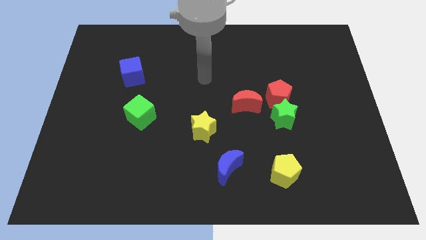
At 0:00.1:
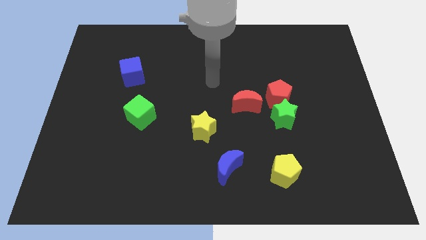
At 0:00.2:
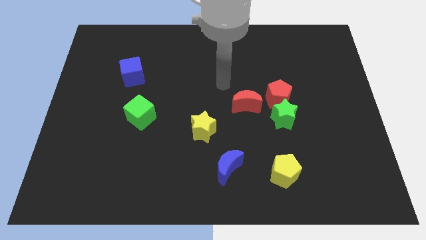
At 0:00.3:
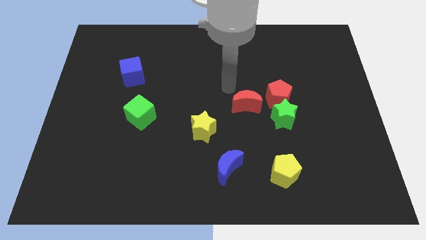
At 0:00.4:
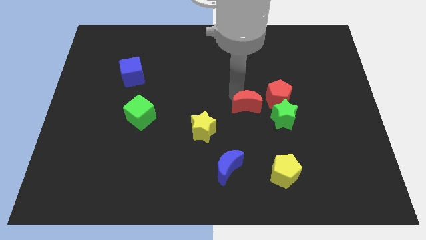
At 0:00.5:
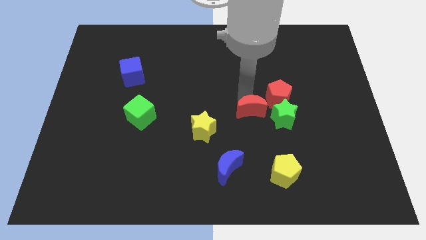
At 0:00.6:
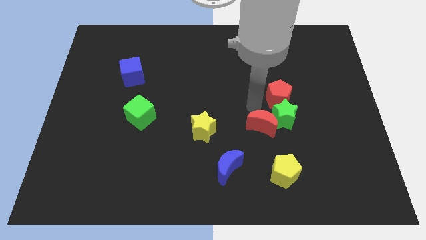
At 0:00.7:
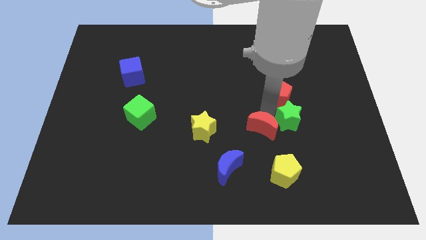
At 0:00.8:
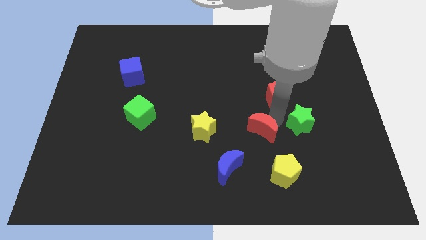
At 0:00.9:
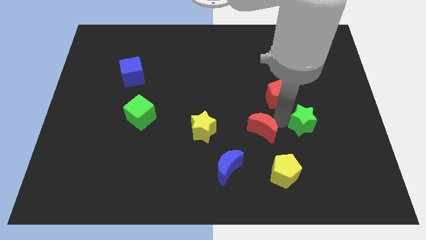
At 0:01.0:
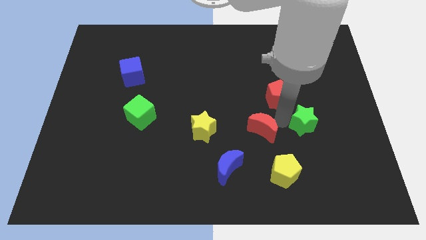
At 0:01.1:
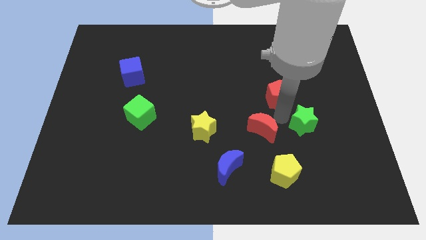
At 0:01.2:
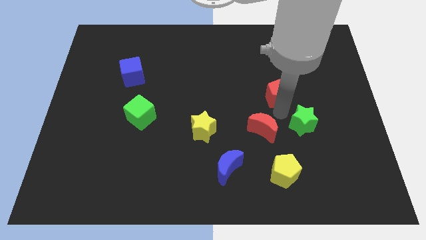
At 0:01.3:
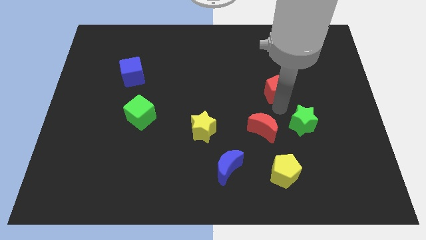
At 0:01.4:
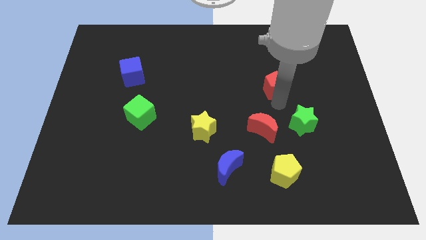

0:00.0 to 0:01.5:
move the red pentagon away from the green star and red moon

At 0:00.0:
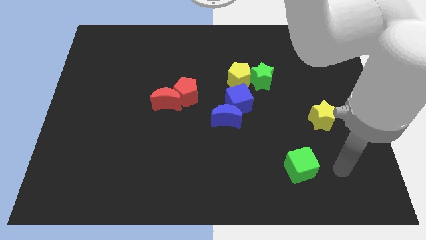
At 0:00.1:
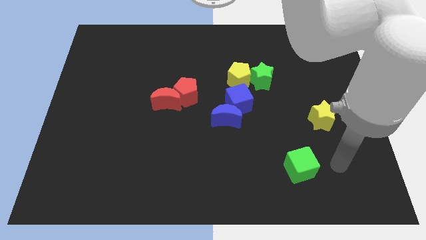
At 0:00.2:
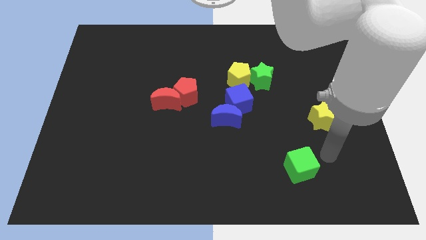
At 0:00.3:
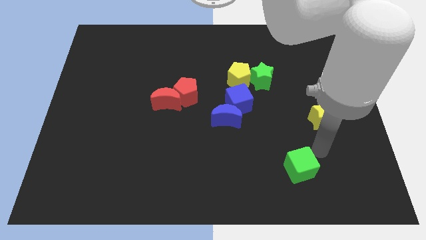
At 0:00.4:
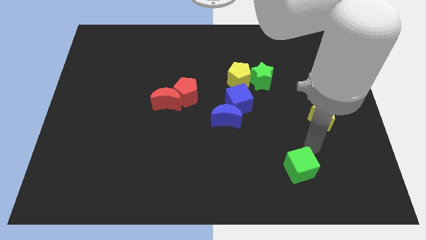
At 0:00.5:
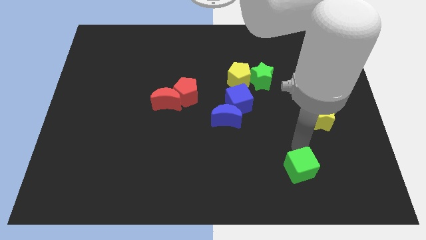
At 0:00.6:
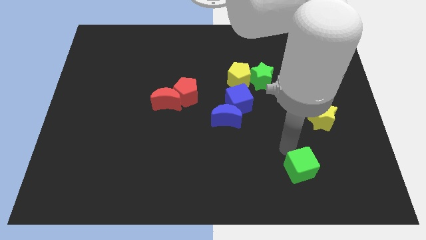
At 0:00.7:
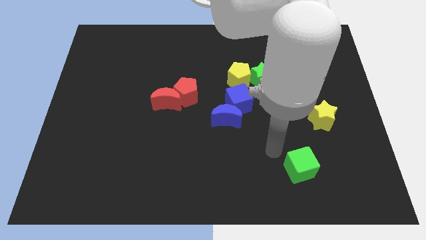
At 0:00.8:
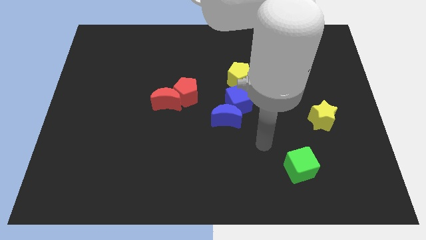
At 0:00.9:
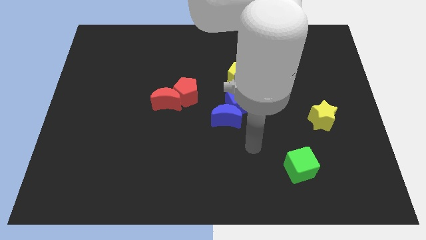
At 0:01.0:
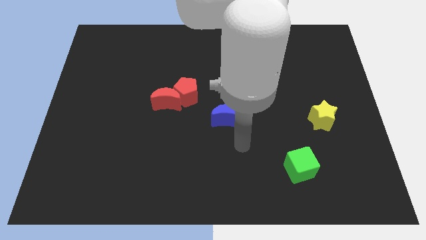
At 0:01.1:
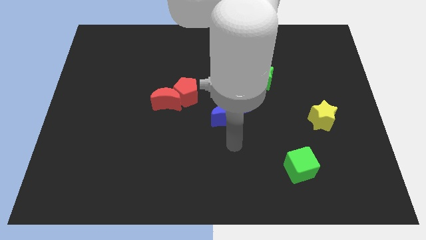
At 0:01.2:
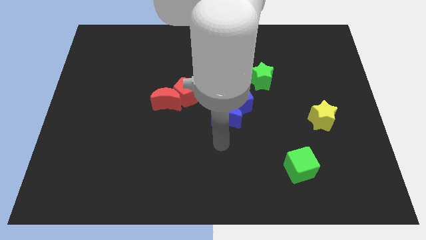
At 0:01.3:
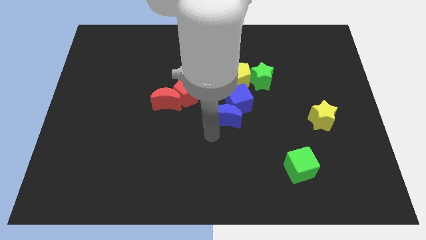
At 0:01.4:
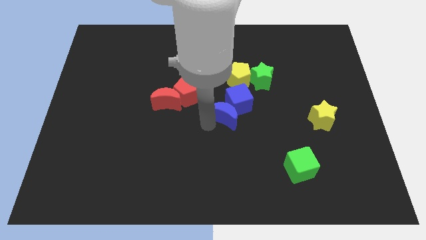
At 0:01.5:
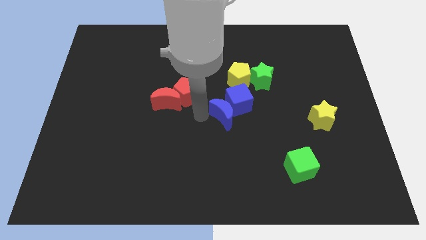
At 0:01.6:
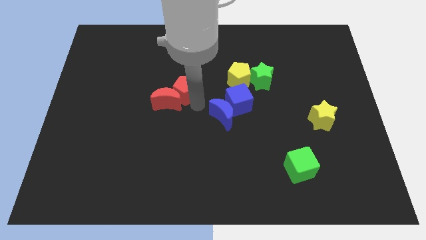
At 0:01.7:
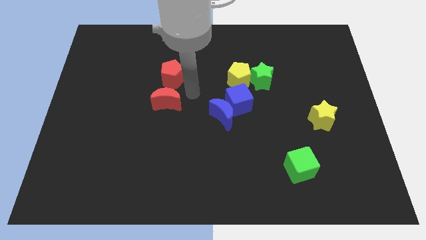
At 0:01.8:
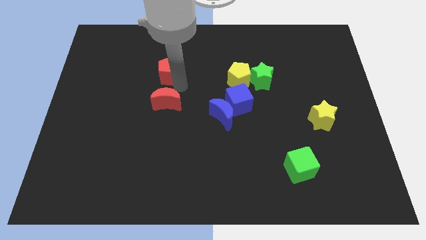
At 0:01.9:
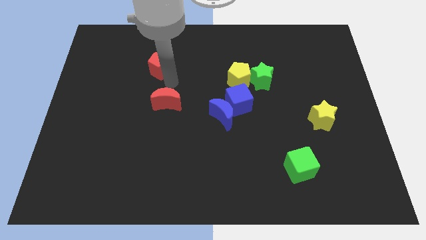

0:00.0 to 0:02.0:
separate the red moon from the red pentagon

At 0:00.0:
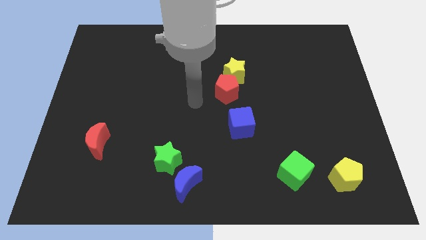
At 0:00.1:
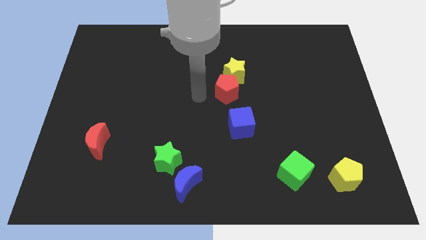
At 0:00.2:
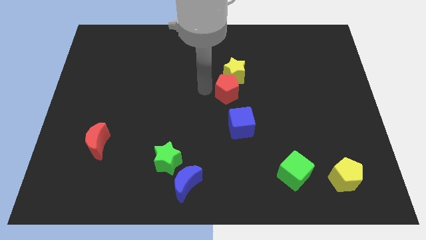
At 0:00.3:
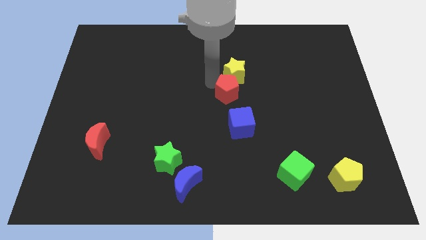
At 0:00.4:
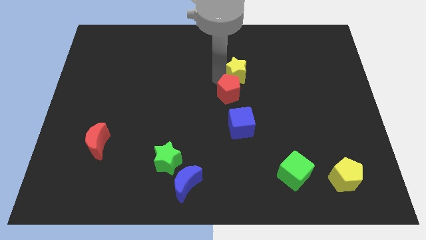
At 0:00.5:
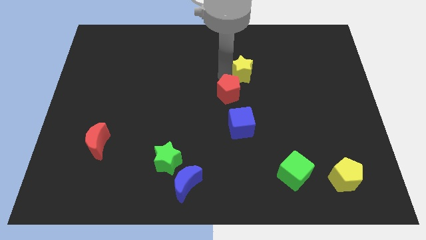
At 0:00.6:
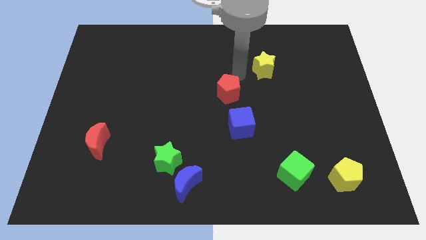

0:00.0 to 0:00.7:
move the red pentagon away from the yellow star

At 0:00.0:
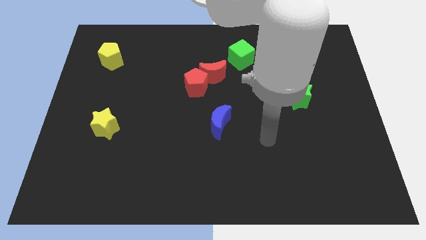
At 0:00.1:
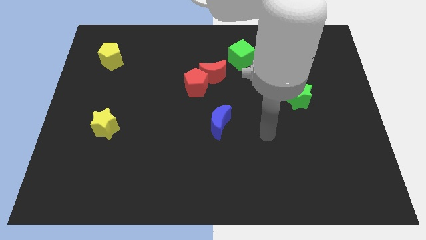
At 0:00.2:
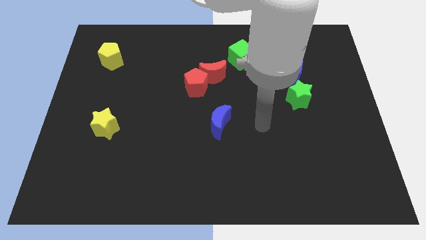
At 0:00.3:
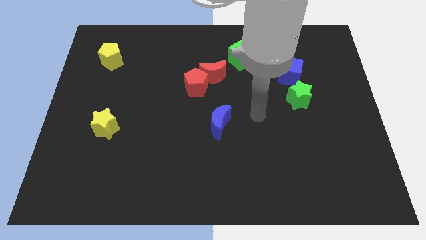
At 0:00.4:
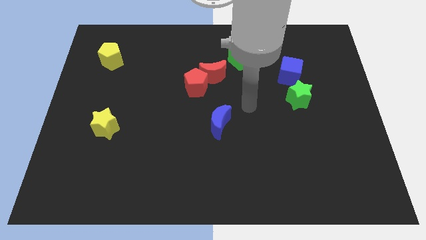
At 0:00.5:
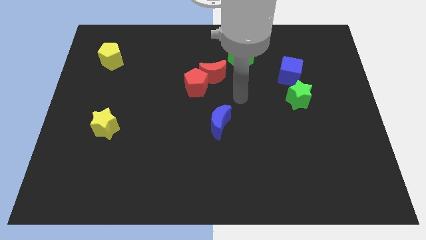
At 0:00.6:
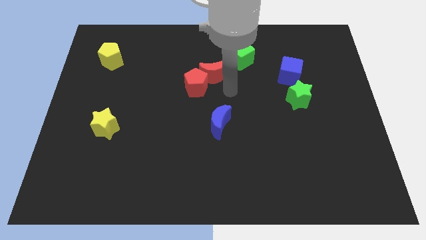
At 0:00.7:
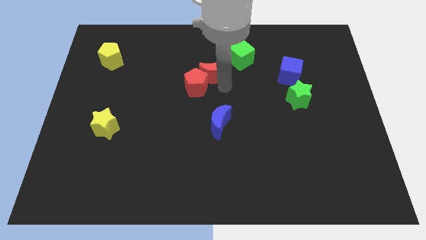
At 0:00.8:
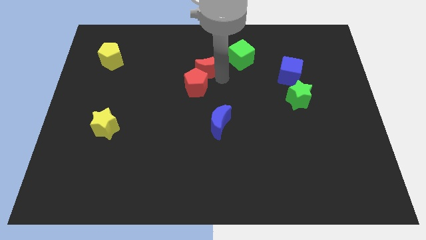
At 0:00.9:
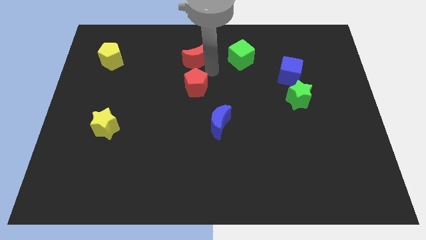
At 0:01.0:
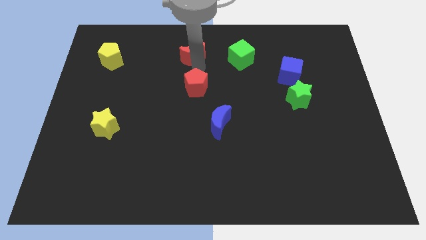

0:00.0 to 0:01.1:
pull the red pentagon apart from the red moon

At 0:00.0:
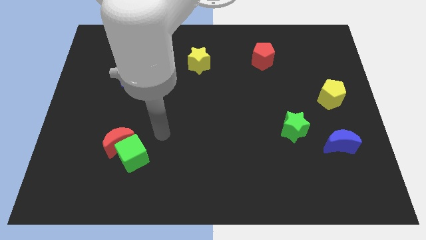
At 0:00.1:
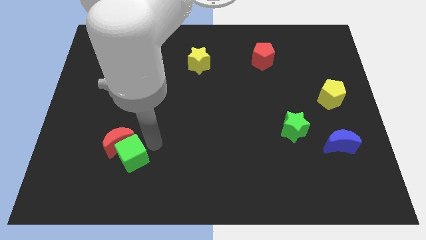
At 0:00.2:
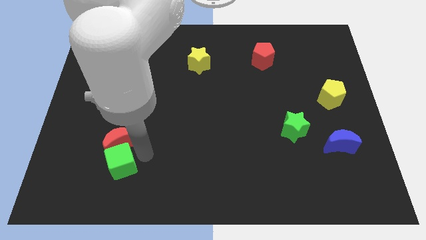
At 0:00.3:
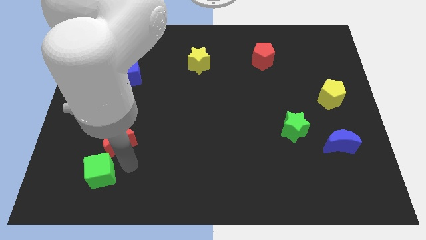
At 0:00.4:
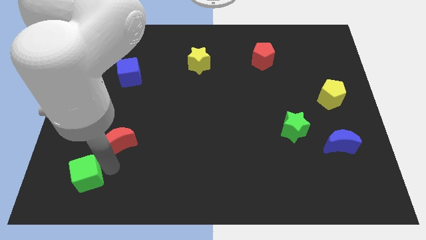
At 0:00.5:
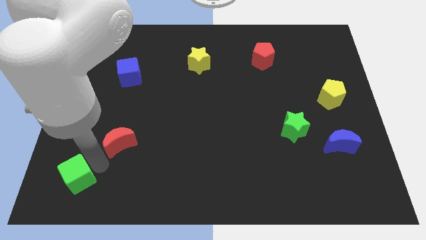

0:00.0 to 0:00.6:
move the red moon away from the green cube

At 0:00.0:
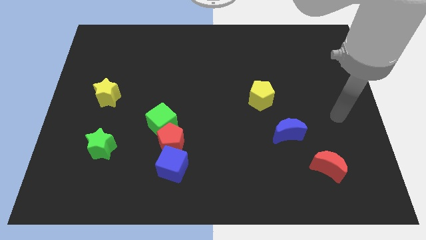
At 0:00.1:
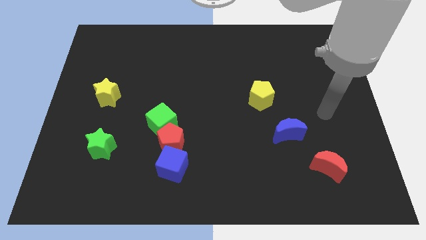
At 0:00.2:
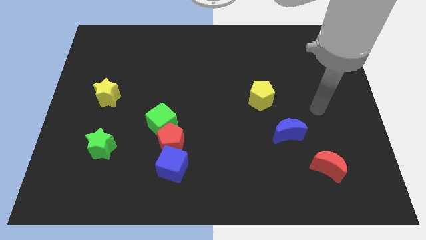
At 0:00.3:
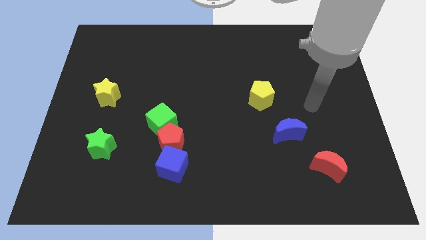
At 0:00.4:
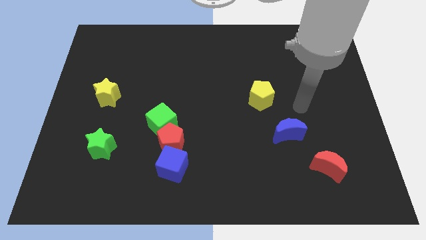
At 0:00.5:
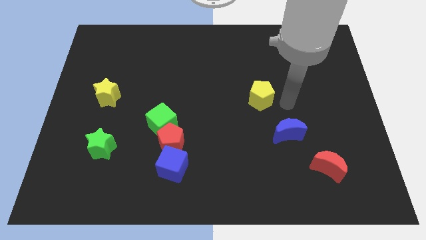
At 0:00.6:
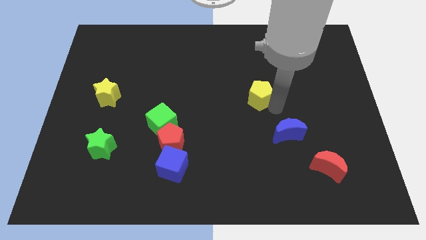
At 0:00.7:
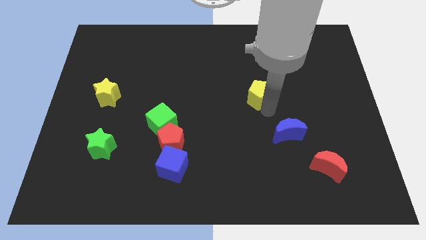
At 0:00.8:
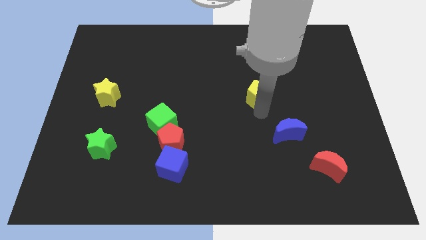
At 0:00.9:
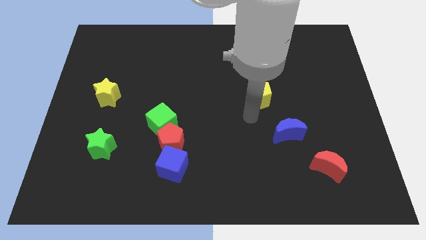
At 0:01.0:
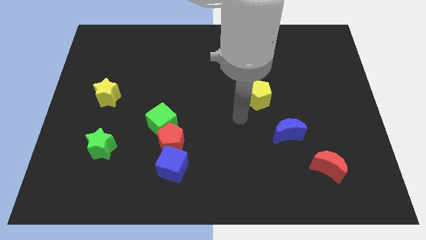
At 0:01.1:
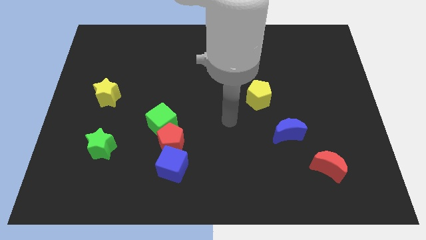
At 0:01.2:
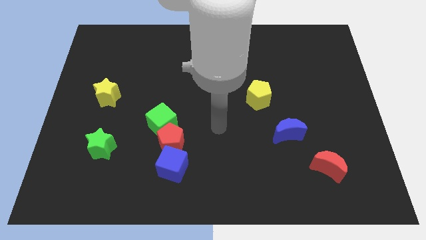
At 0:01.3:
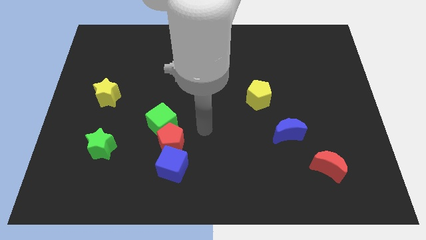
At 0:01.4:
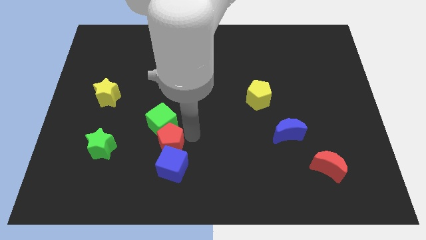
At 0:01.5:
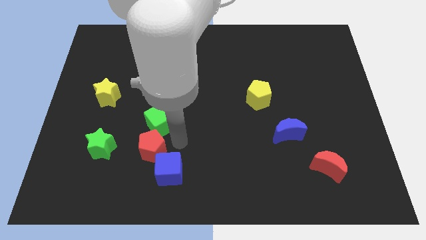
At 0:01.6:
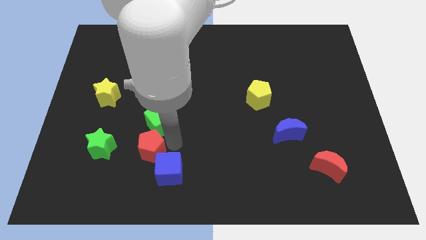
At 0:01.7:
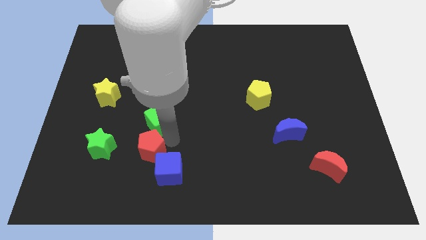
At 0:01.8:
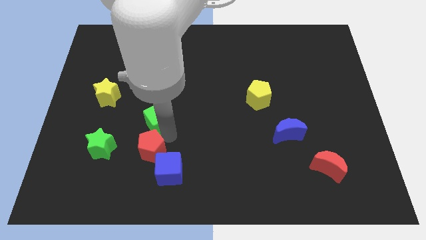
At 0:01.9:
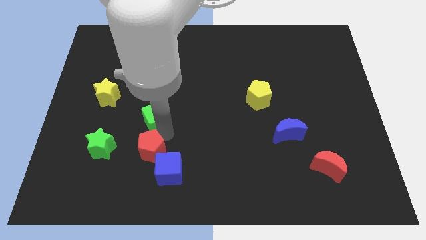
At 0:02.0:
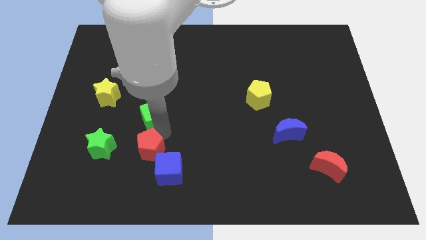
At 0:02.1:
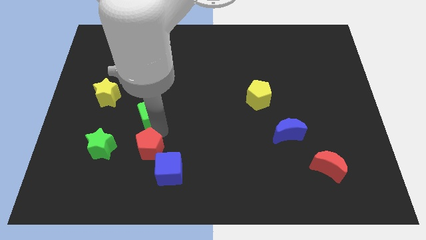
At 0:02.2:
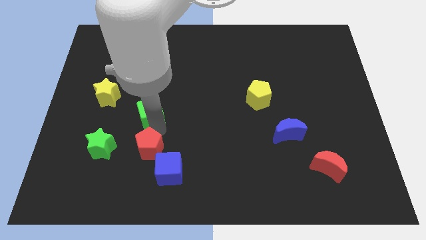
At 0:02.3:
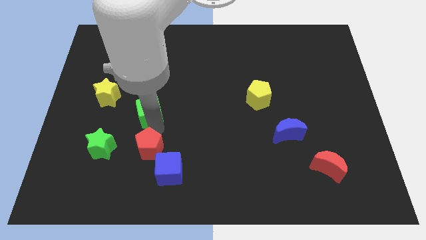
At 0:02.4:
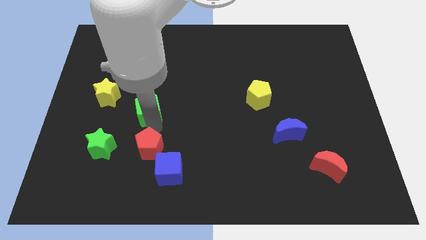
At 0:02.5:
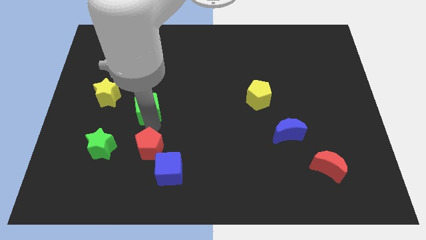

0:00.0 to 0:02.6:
pull the green cube apart from the red pentagon

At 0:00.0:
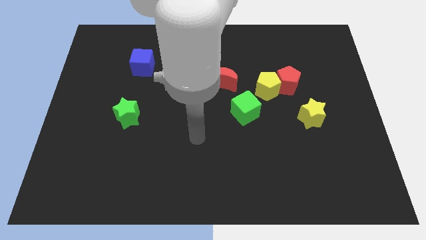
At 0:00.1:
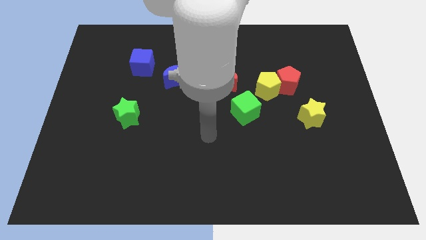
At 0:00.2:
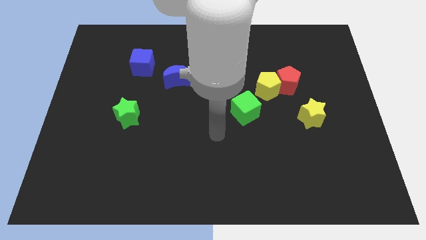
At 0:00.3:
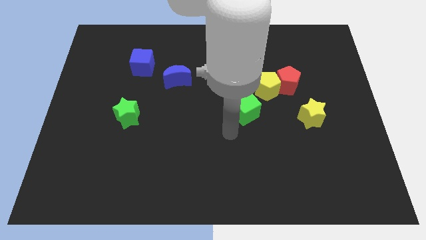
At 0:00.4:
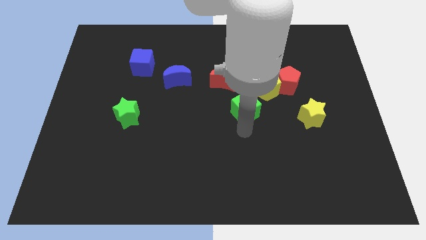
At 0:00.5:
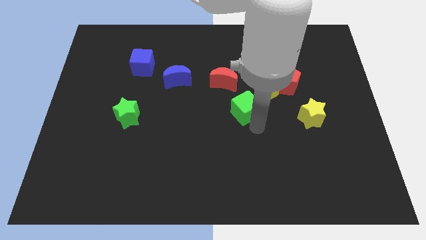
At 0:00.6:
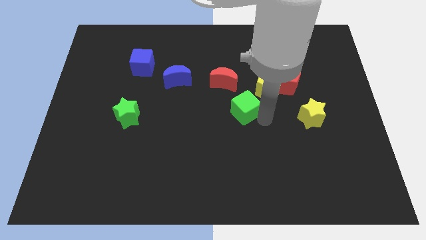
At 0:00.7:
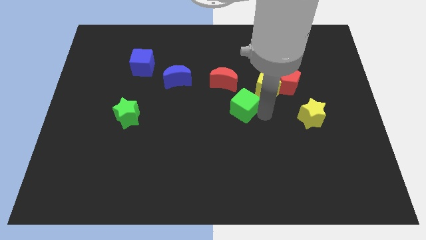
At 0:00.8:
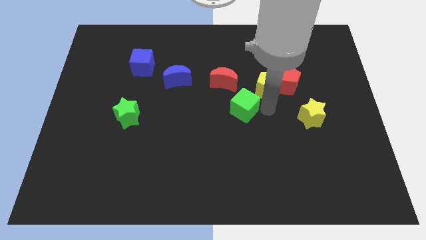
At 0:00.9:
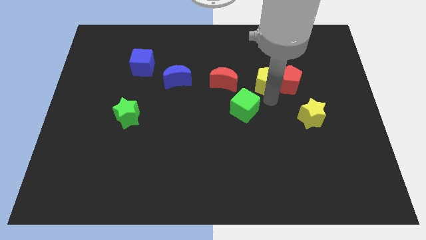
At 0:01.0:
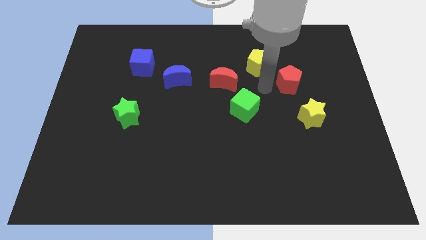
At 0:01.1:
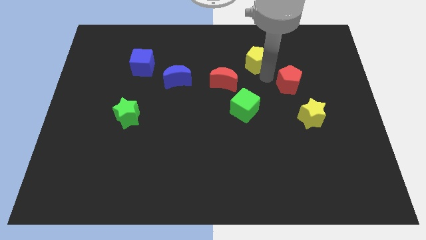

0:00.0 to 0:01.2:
pull the red pentagon apart from the yellow pentagon
